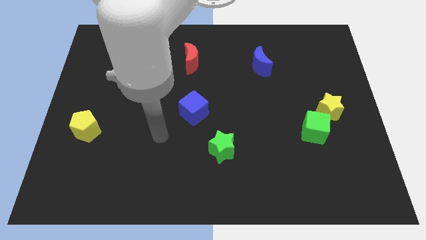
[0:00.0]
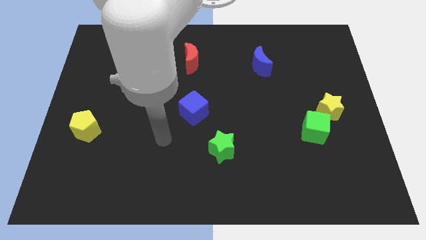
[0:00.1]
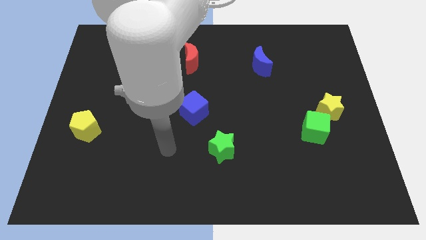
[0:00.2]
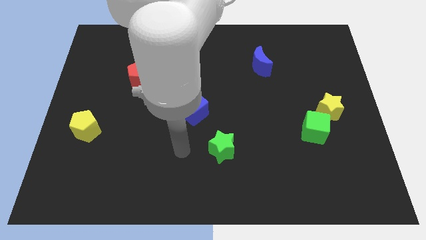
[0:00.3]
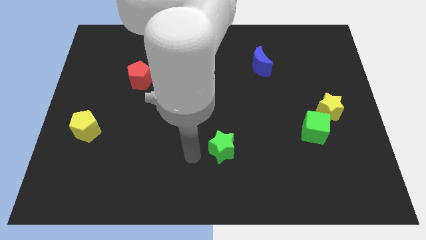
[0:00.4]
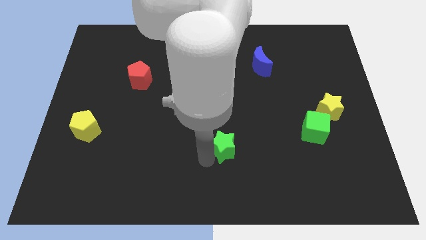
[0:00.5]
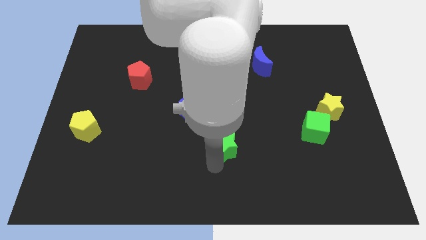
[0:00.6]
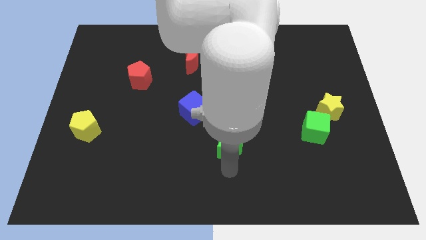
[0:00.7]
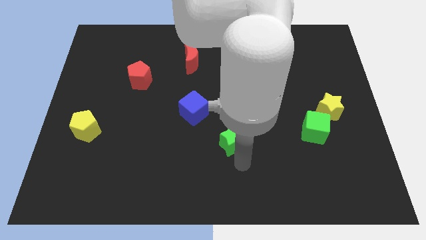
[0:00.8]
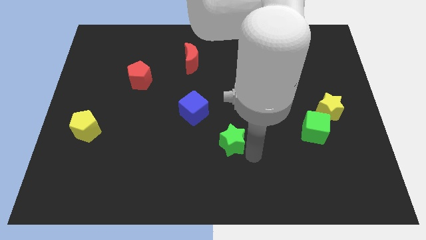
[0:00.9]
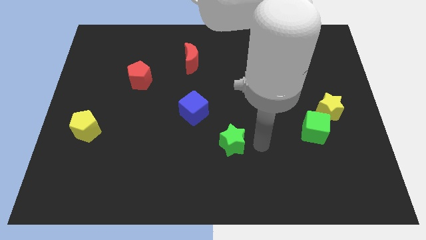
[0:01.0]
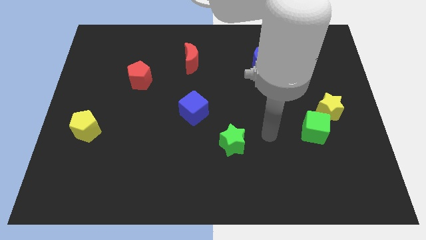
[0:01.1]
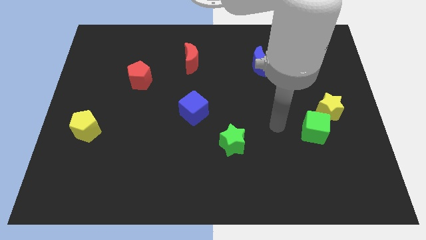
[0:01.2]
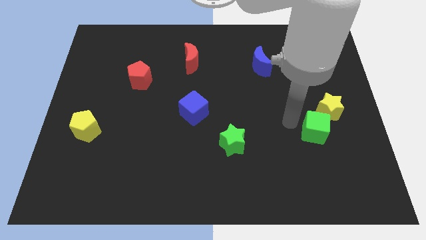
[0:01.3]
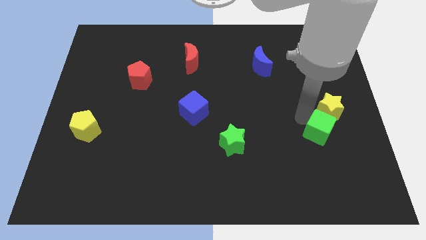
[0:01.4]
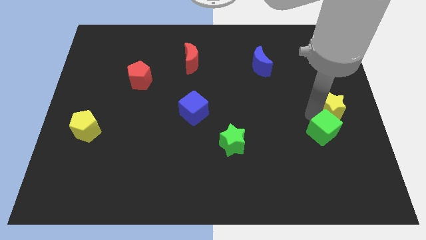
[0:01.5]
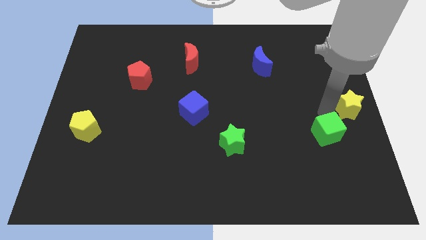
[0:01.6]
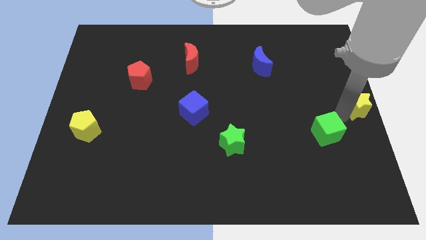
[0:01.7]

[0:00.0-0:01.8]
pull the green cube apart from the yellow star

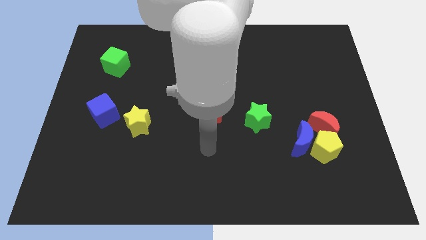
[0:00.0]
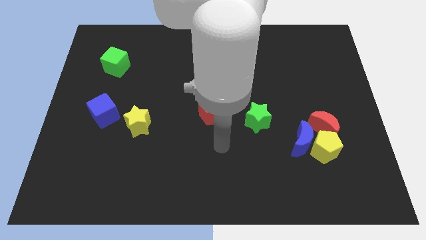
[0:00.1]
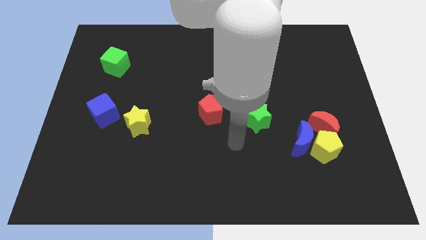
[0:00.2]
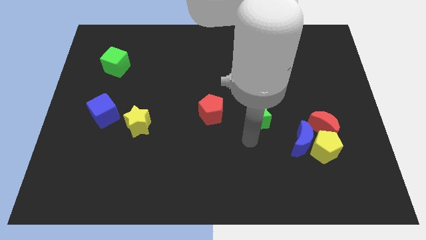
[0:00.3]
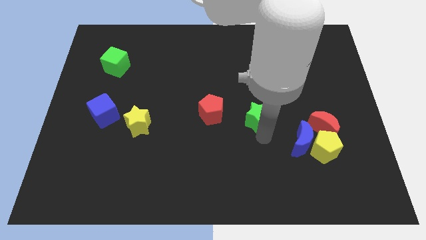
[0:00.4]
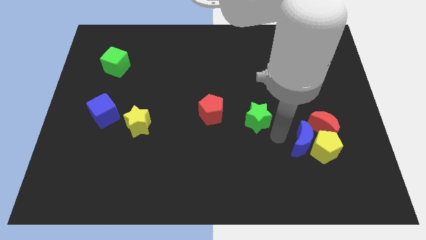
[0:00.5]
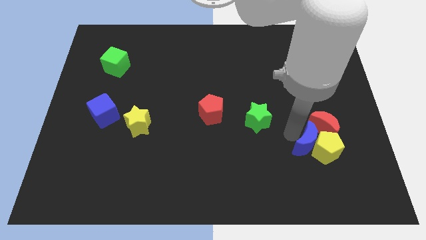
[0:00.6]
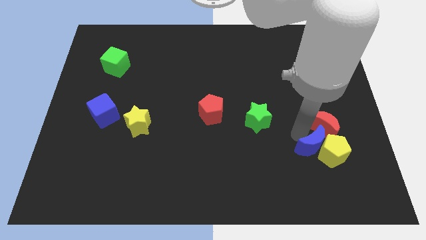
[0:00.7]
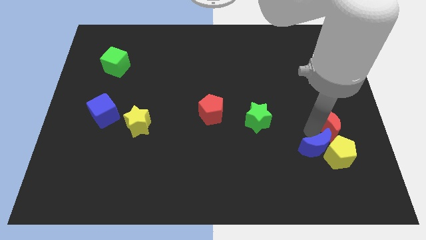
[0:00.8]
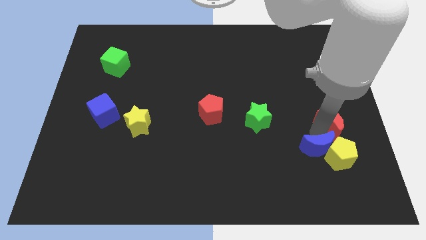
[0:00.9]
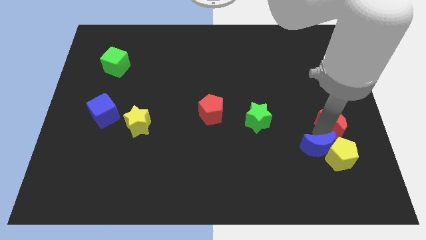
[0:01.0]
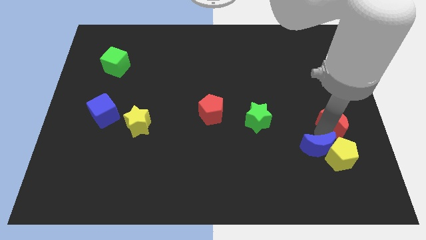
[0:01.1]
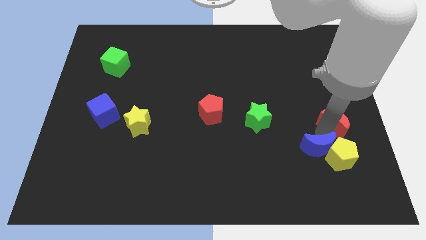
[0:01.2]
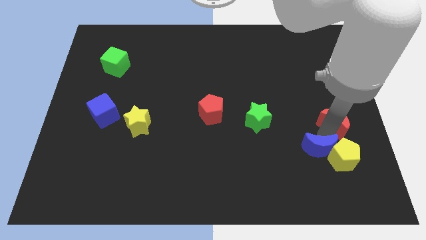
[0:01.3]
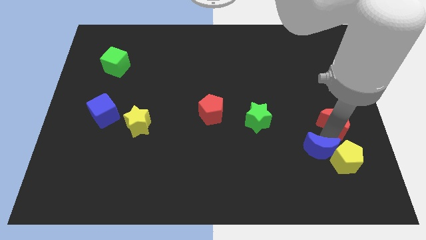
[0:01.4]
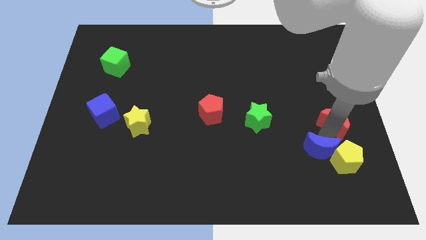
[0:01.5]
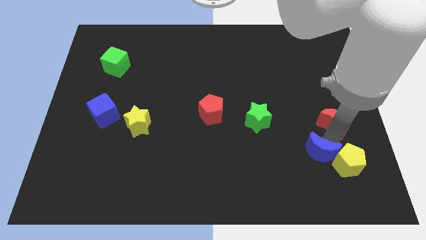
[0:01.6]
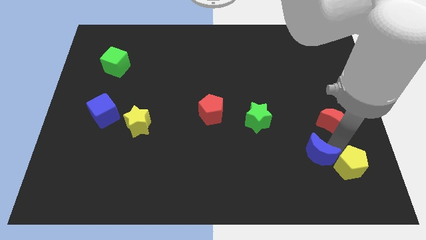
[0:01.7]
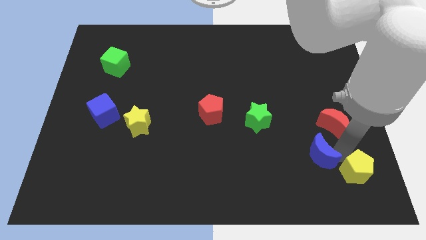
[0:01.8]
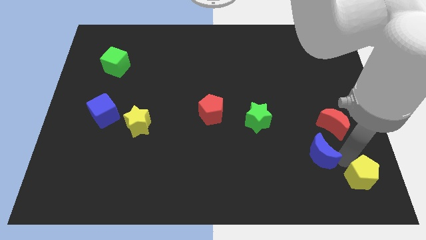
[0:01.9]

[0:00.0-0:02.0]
pull the yellow pentagon apart from the blue moon and red moon

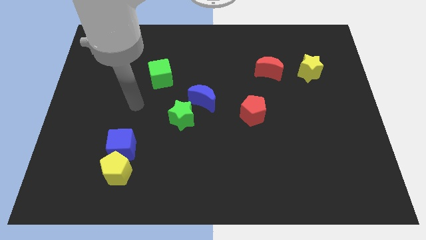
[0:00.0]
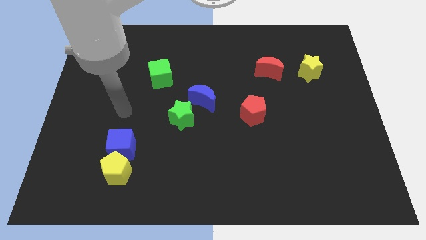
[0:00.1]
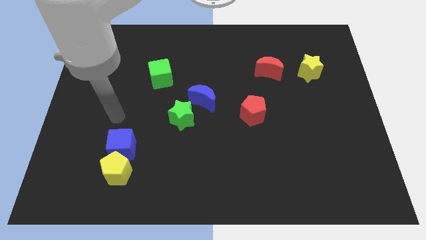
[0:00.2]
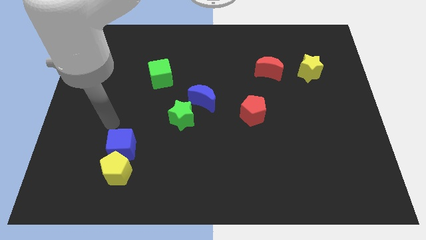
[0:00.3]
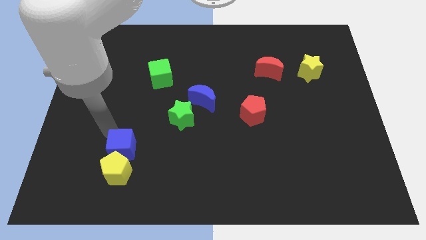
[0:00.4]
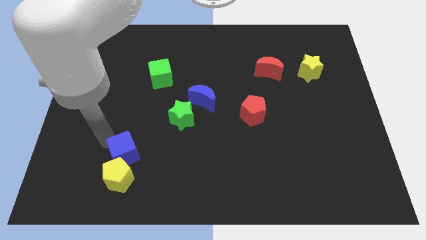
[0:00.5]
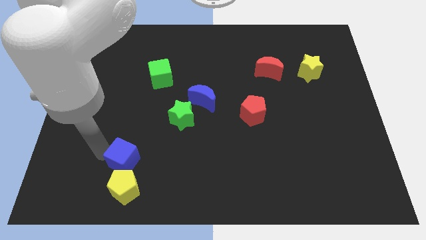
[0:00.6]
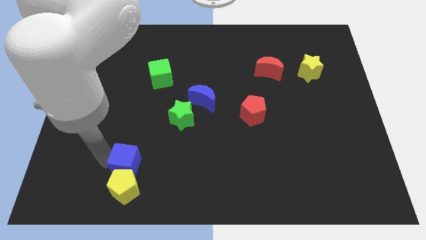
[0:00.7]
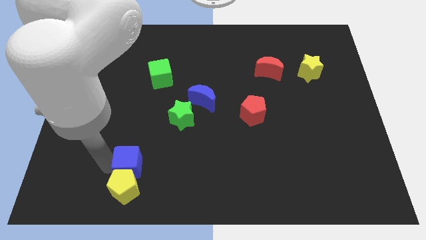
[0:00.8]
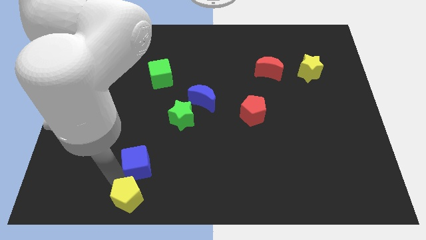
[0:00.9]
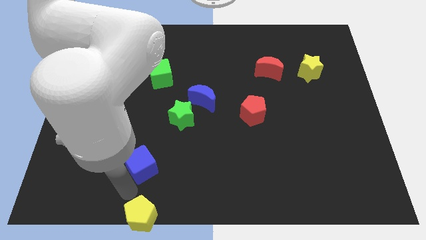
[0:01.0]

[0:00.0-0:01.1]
separate the blue cube from the yellow pentagon

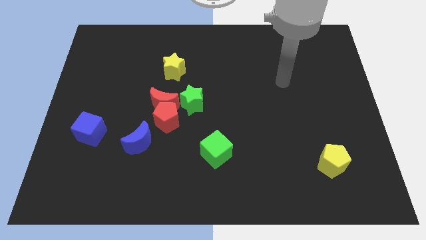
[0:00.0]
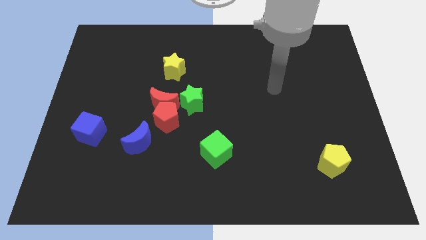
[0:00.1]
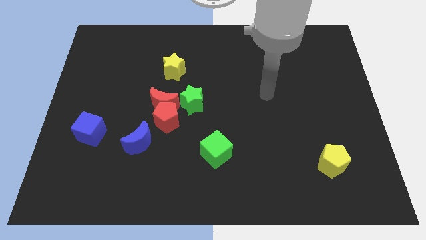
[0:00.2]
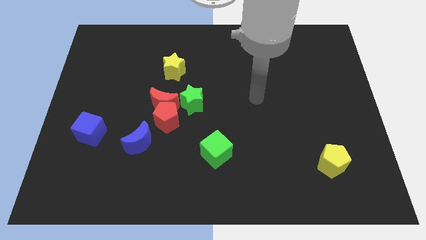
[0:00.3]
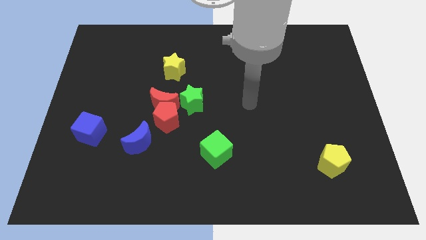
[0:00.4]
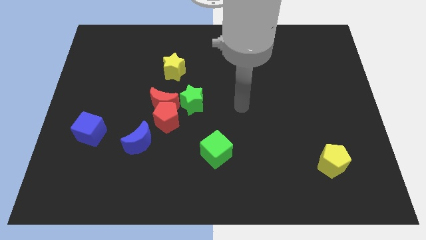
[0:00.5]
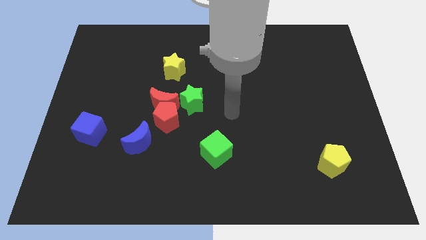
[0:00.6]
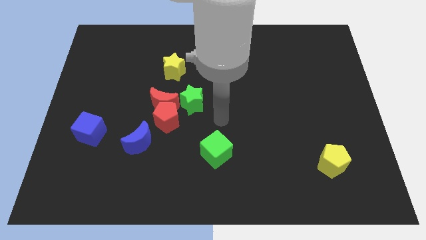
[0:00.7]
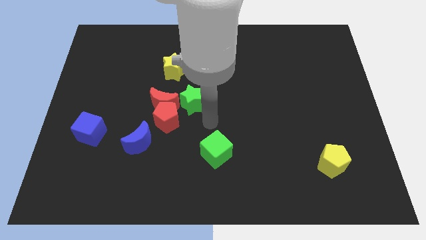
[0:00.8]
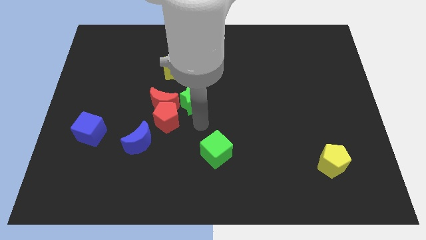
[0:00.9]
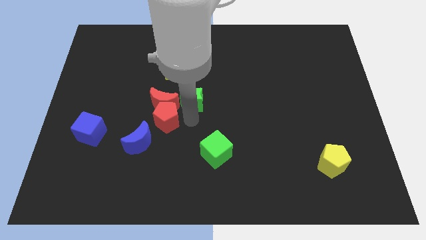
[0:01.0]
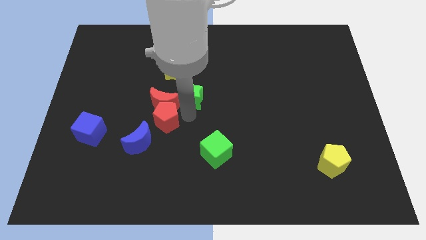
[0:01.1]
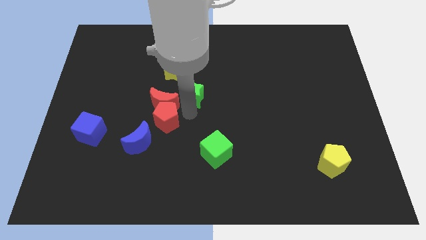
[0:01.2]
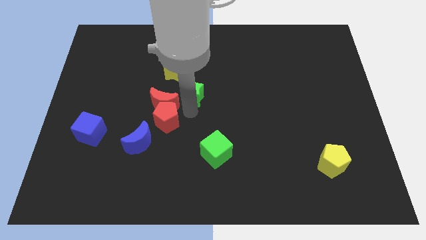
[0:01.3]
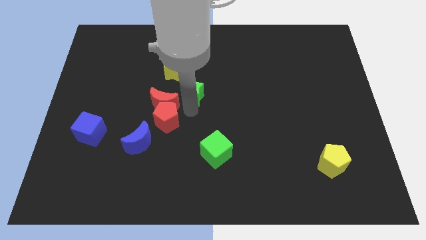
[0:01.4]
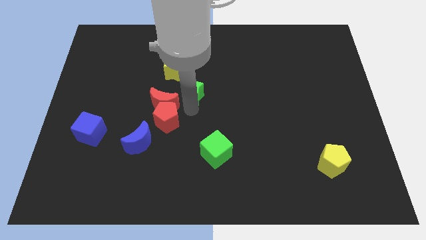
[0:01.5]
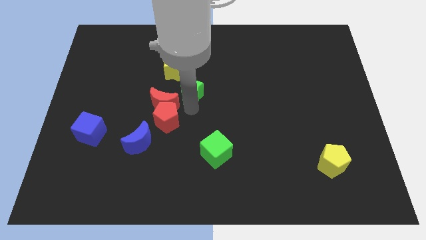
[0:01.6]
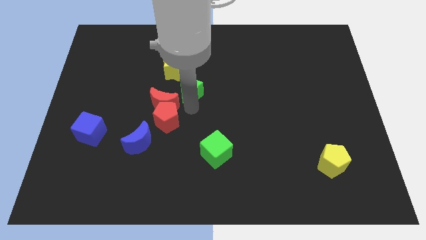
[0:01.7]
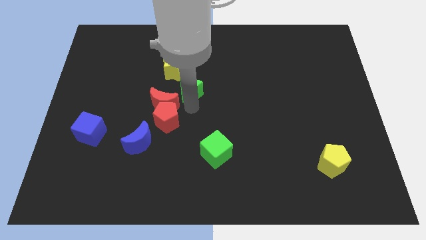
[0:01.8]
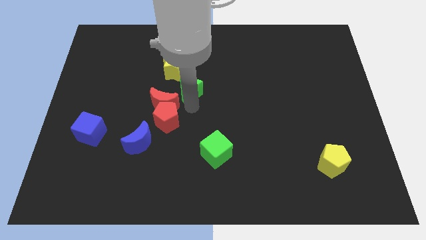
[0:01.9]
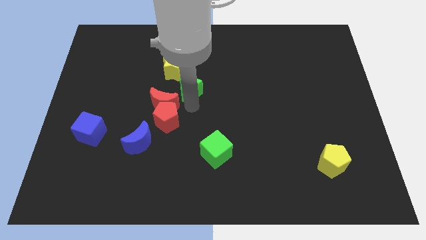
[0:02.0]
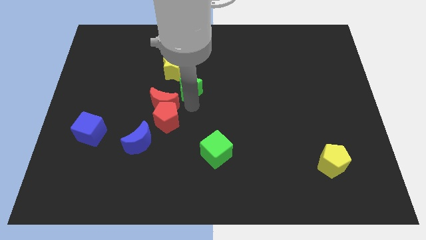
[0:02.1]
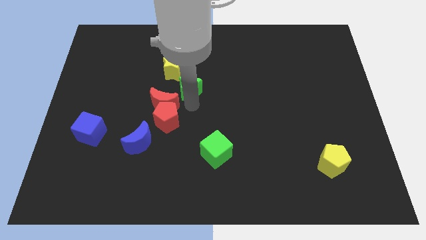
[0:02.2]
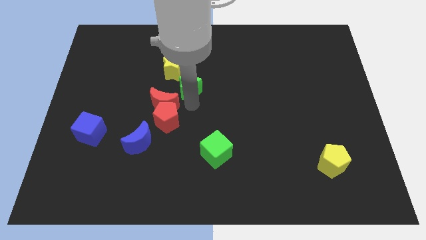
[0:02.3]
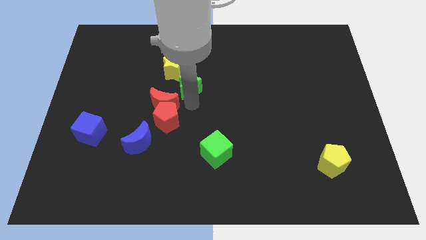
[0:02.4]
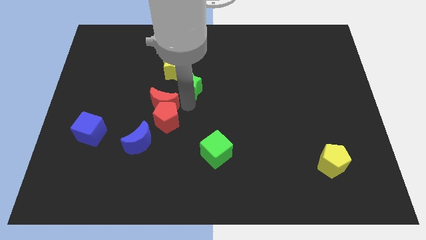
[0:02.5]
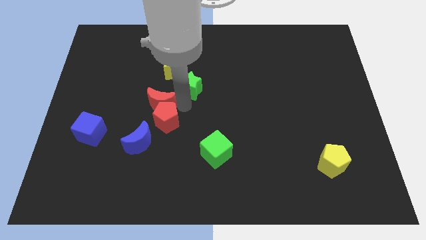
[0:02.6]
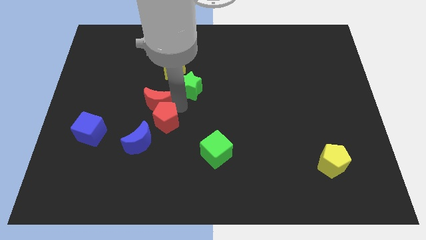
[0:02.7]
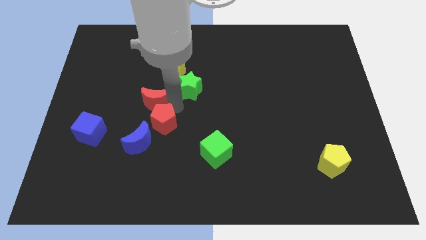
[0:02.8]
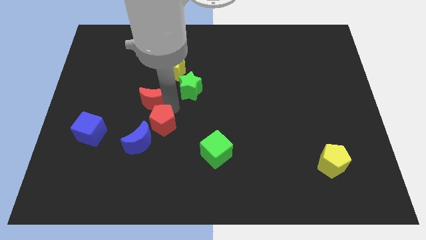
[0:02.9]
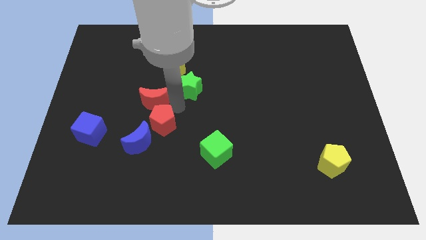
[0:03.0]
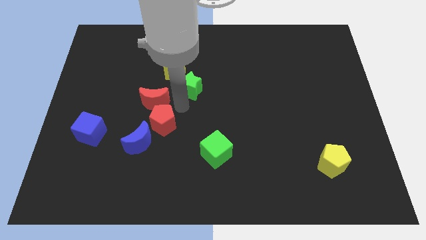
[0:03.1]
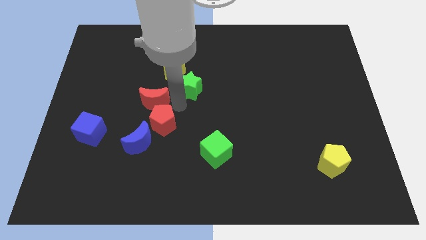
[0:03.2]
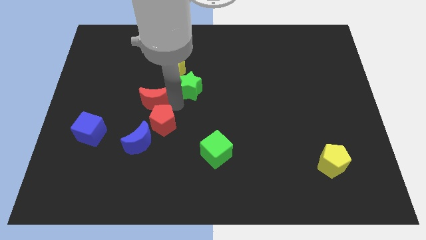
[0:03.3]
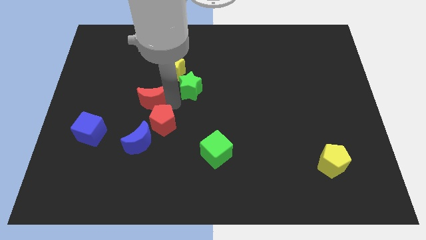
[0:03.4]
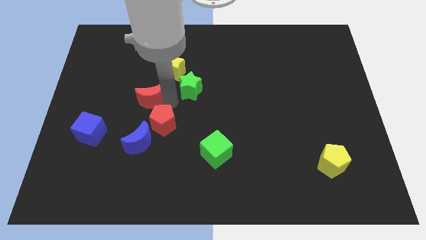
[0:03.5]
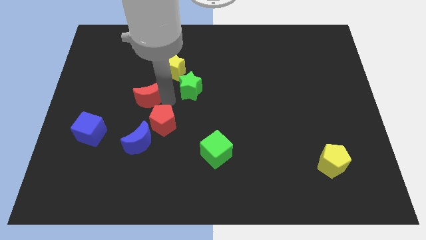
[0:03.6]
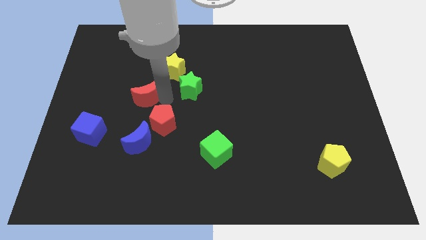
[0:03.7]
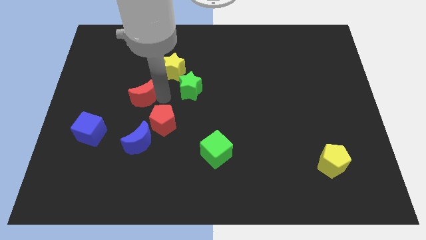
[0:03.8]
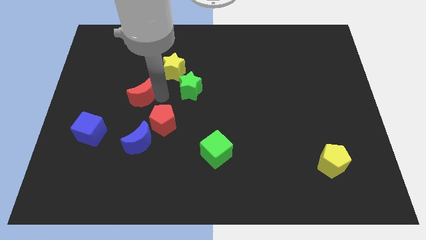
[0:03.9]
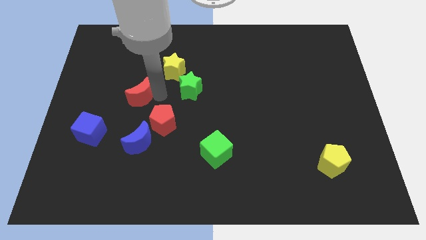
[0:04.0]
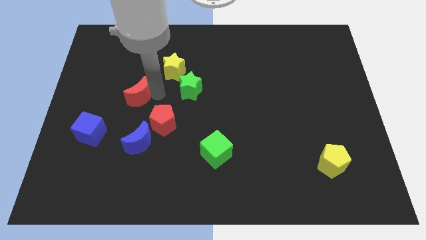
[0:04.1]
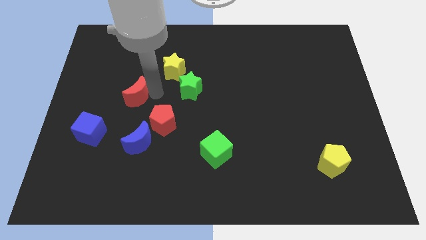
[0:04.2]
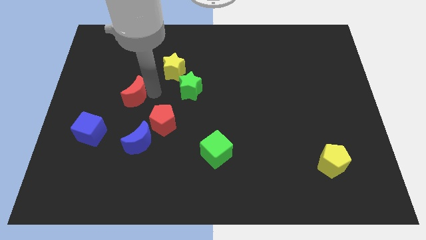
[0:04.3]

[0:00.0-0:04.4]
move the red moon away from the red pentagon and green star

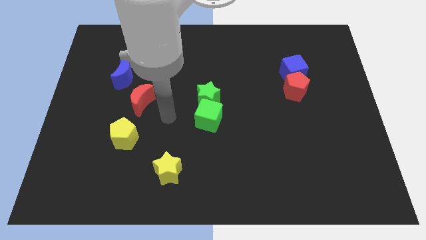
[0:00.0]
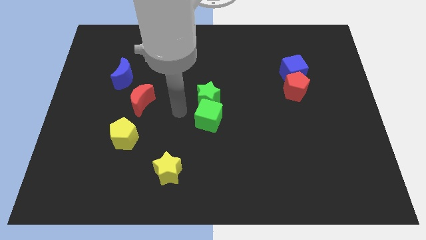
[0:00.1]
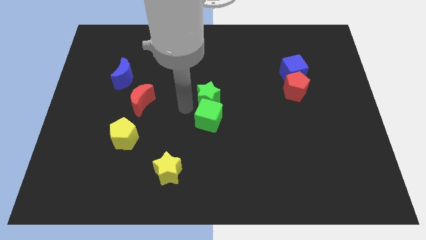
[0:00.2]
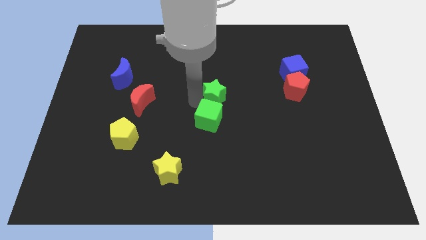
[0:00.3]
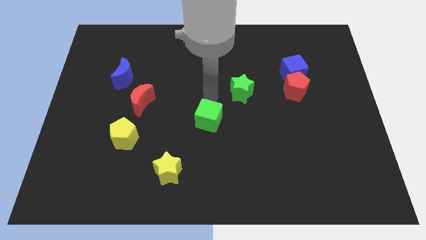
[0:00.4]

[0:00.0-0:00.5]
separate the green cube from the green star
